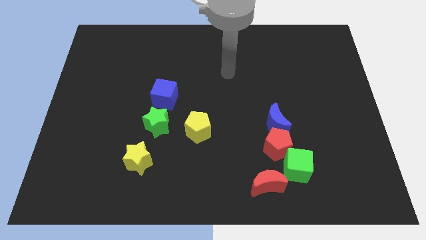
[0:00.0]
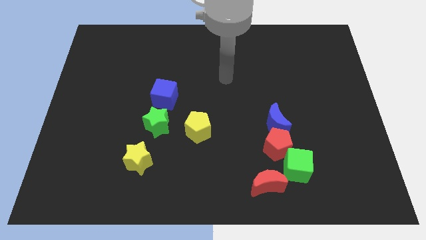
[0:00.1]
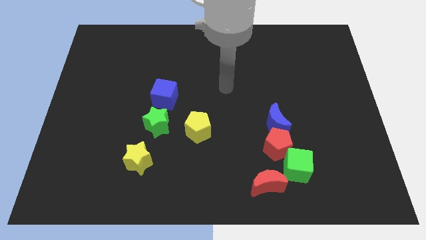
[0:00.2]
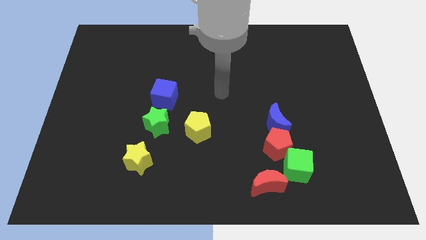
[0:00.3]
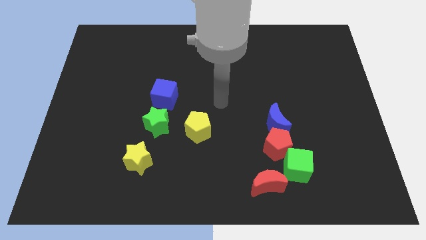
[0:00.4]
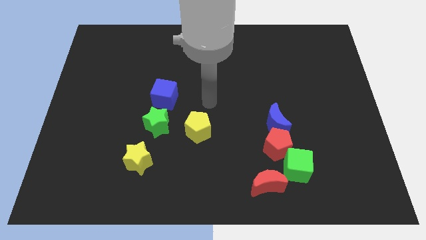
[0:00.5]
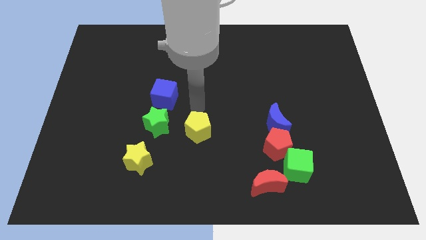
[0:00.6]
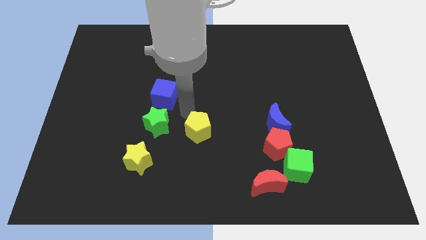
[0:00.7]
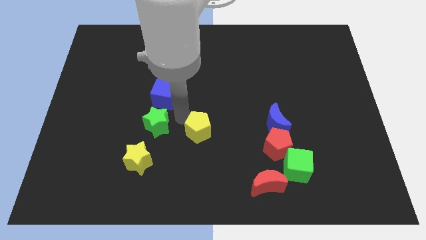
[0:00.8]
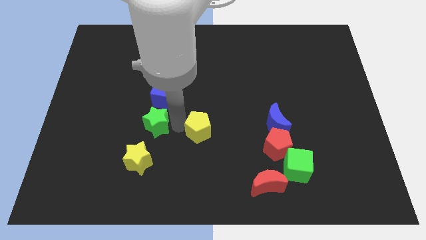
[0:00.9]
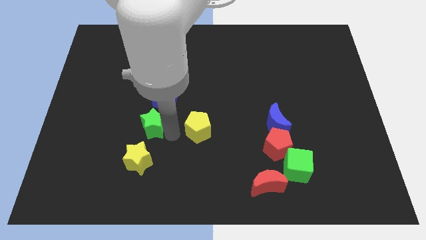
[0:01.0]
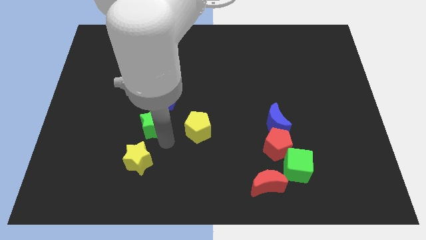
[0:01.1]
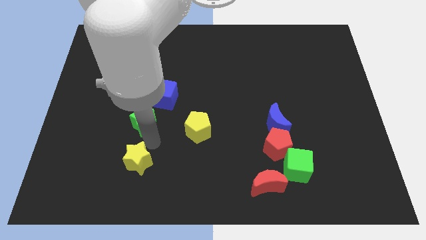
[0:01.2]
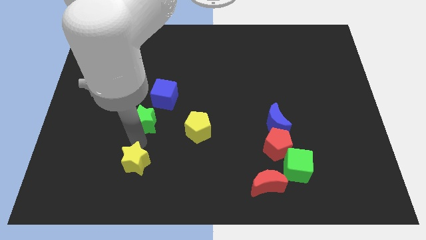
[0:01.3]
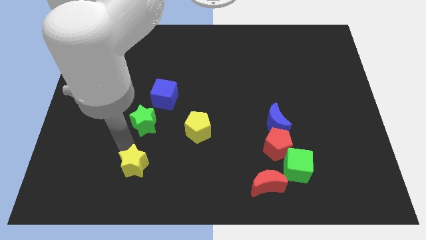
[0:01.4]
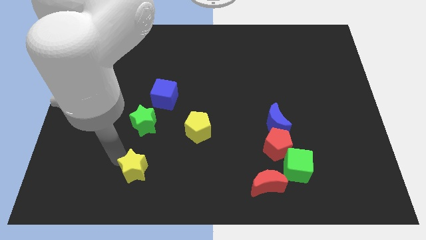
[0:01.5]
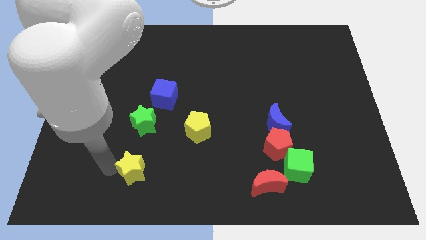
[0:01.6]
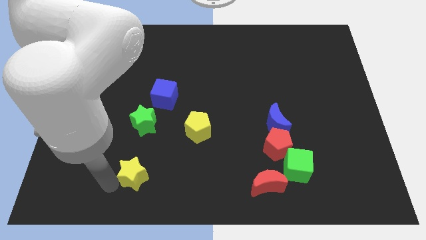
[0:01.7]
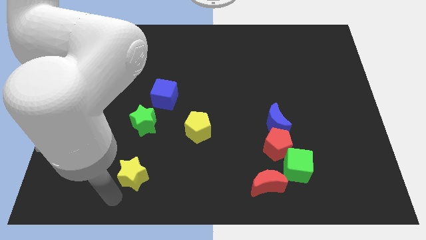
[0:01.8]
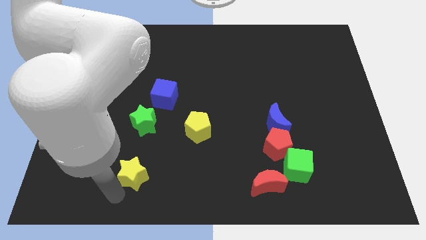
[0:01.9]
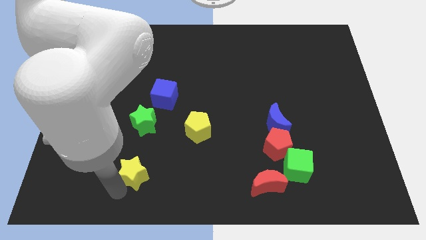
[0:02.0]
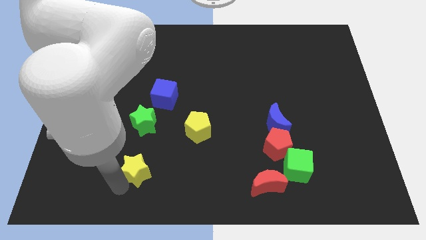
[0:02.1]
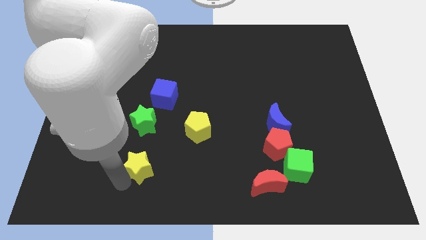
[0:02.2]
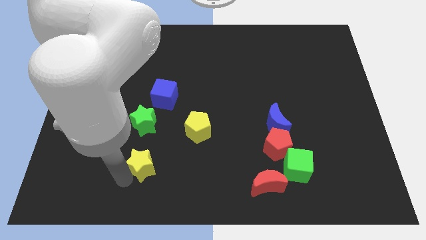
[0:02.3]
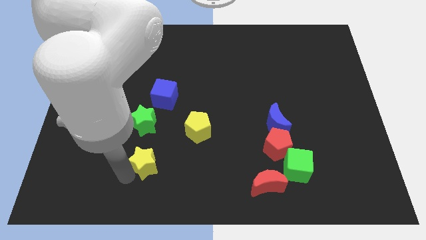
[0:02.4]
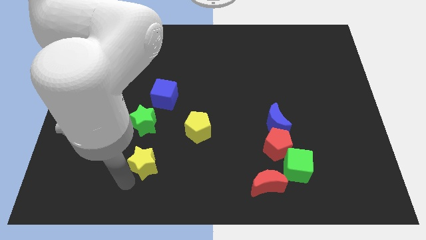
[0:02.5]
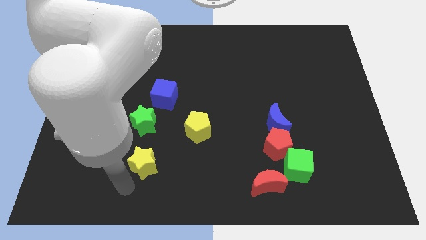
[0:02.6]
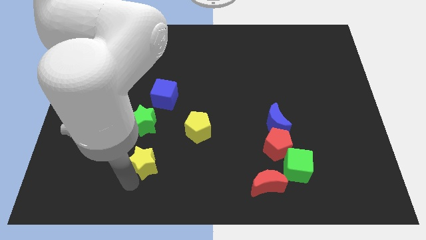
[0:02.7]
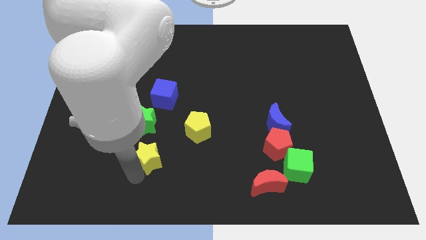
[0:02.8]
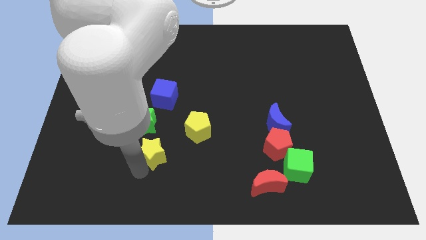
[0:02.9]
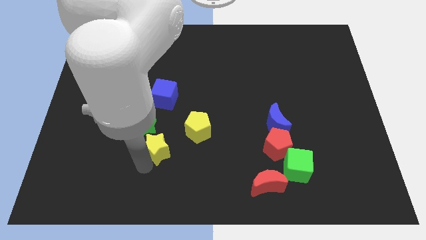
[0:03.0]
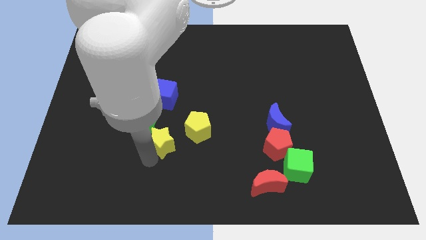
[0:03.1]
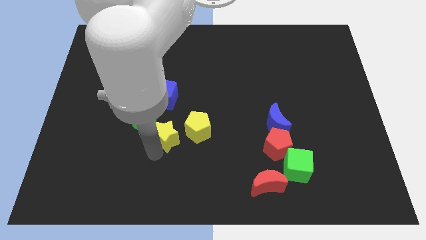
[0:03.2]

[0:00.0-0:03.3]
move the yellow star upwards and right diagonally a little

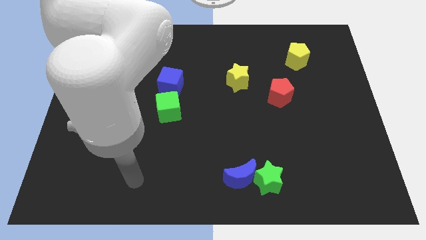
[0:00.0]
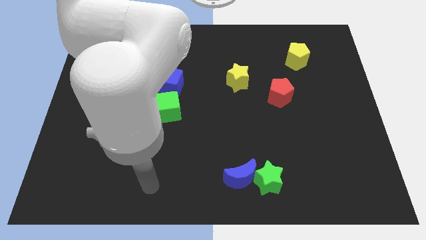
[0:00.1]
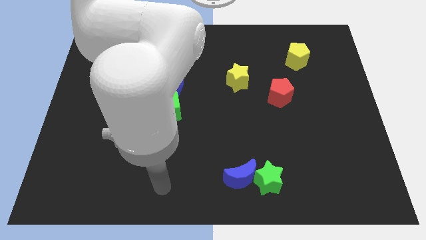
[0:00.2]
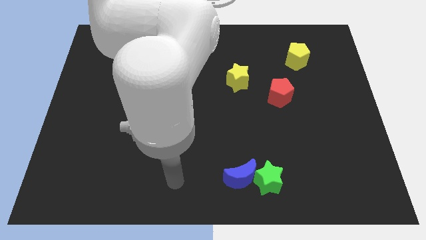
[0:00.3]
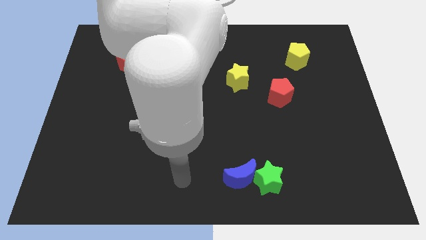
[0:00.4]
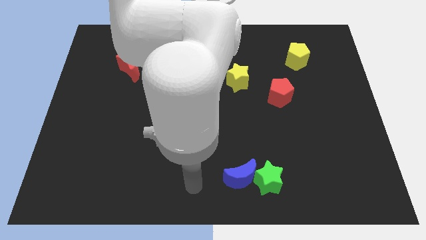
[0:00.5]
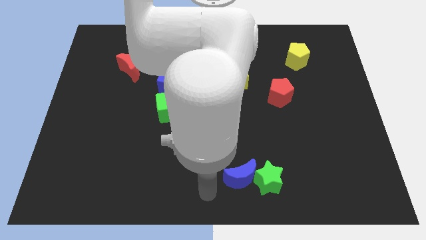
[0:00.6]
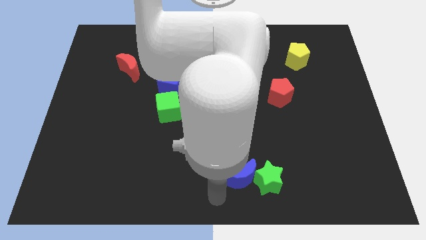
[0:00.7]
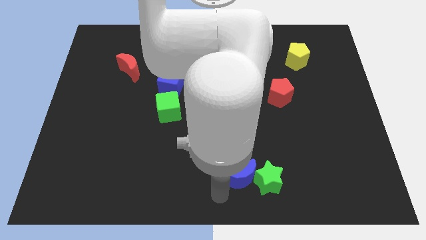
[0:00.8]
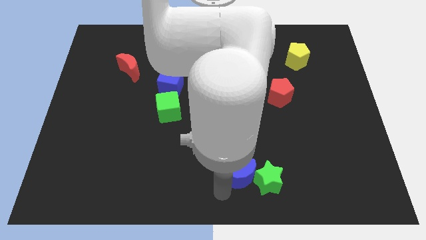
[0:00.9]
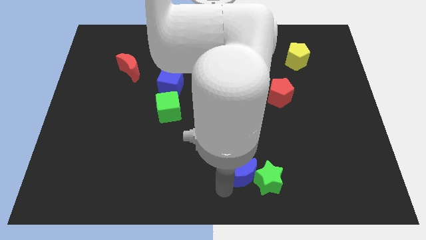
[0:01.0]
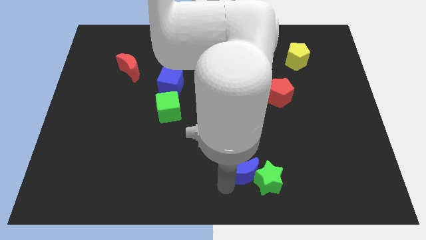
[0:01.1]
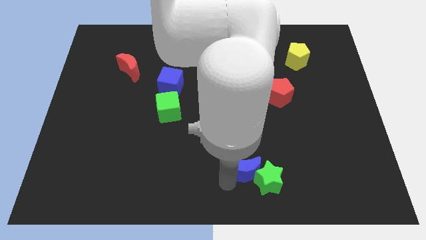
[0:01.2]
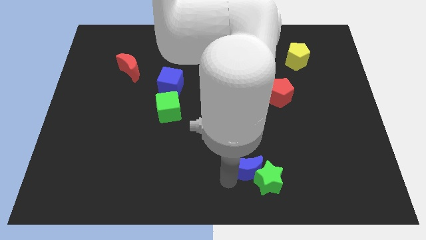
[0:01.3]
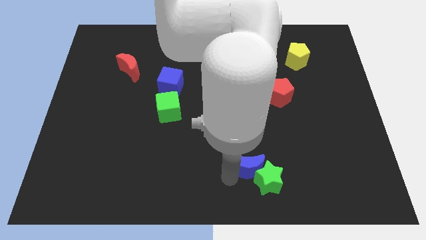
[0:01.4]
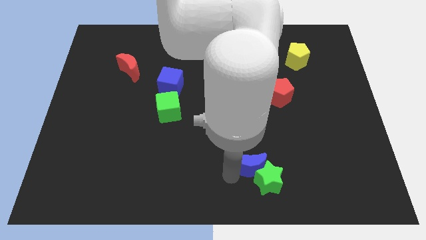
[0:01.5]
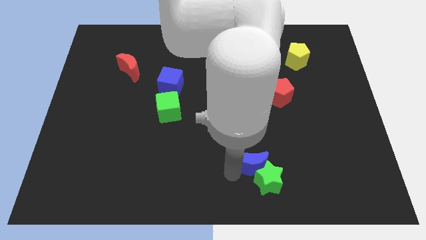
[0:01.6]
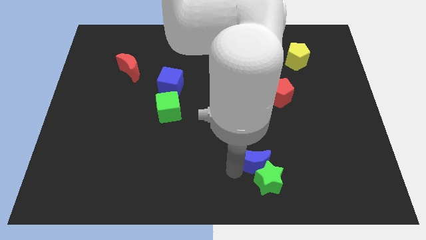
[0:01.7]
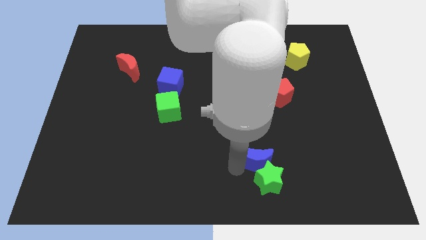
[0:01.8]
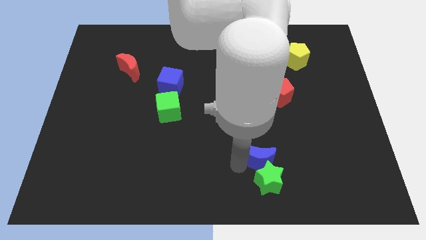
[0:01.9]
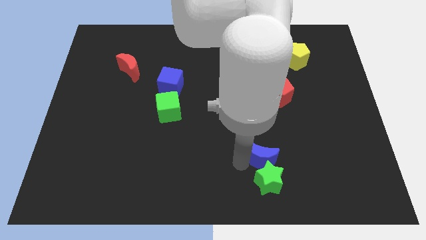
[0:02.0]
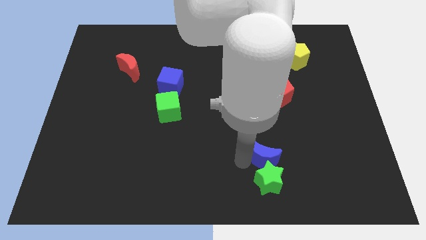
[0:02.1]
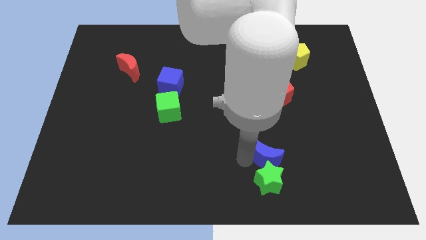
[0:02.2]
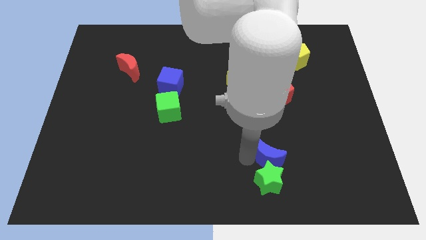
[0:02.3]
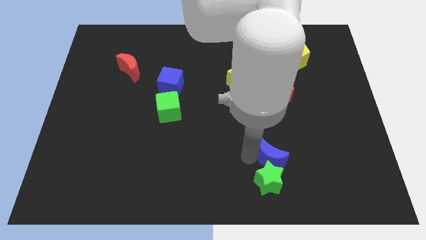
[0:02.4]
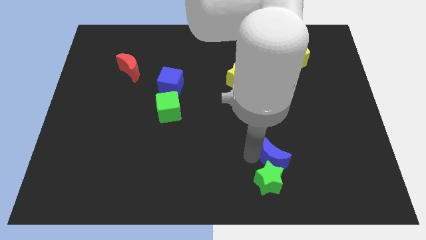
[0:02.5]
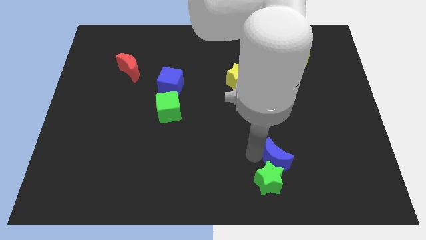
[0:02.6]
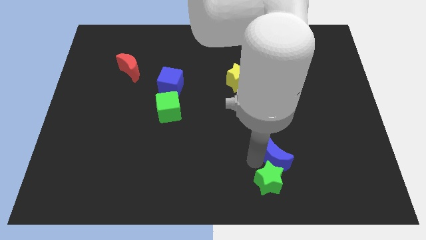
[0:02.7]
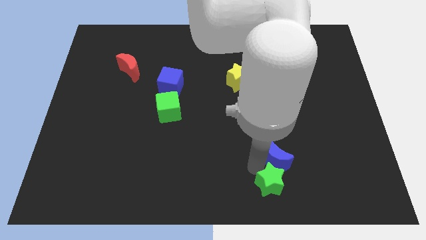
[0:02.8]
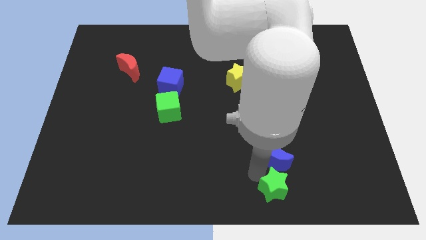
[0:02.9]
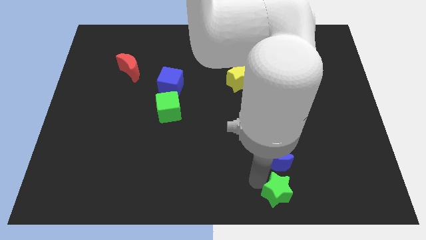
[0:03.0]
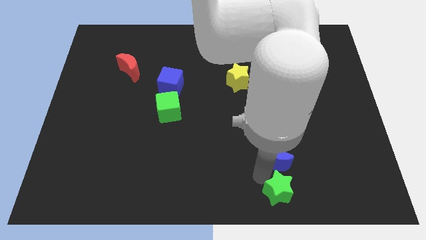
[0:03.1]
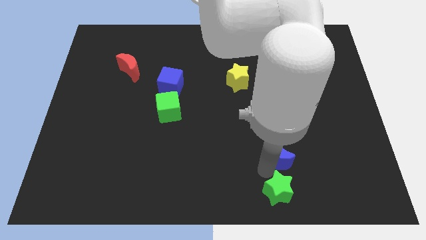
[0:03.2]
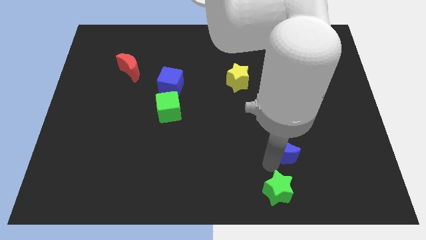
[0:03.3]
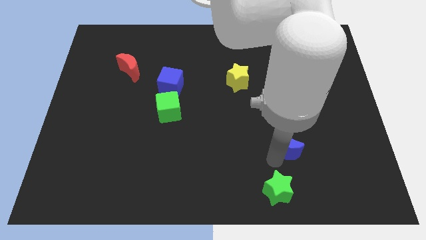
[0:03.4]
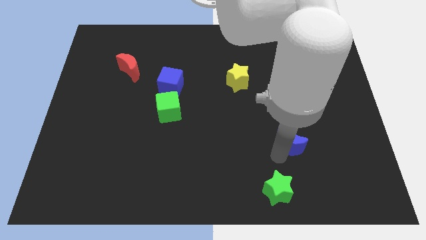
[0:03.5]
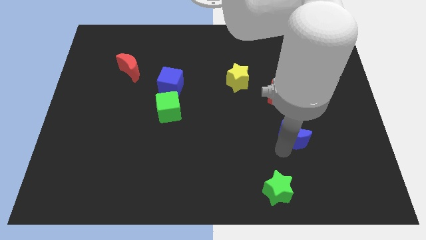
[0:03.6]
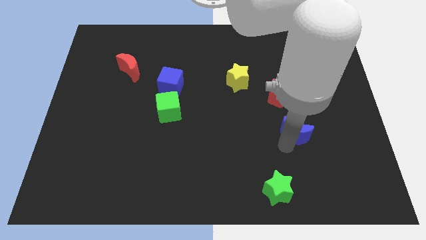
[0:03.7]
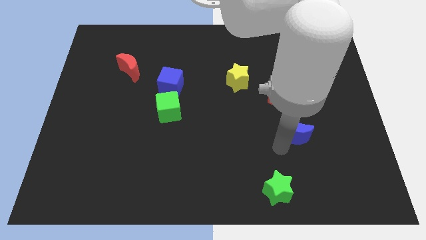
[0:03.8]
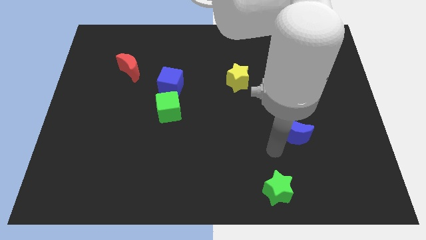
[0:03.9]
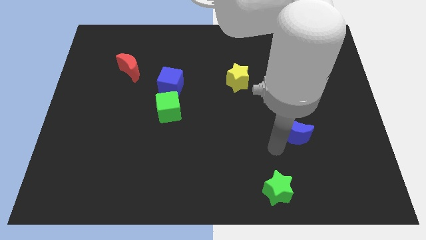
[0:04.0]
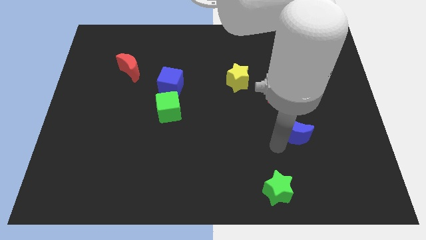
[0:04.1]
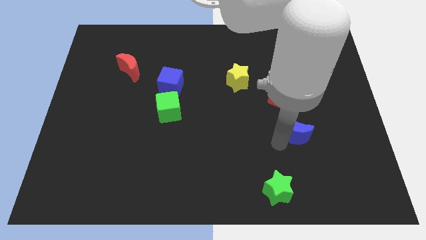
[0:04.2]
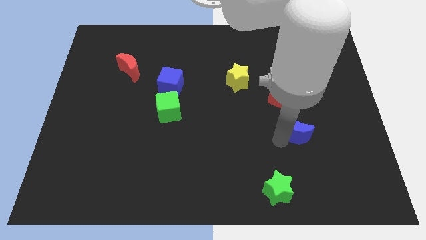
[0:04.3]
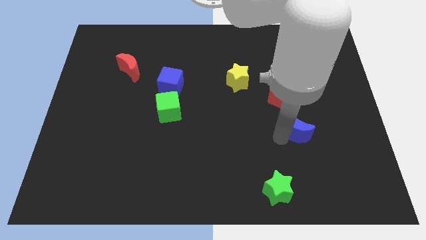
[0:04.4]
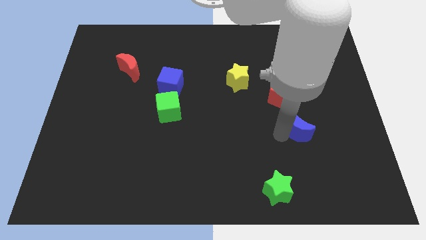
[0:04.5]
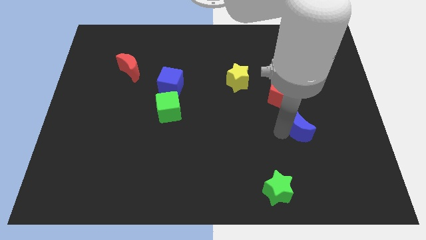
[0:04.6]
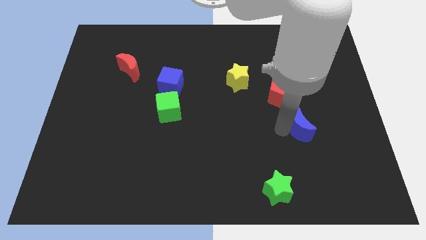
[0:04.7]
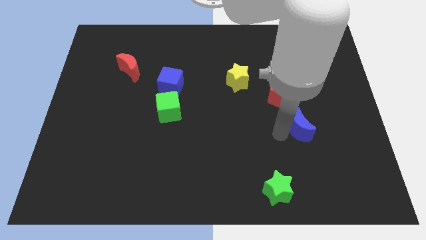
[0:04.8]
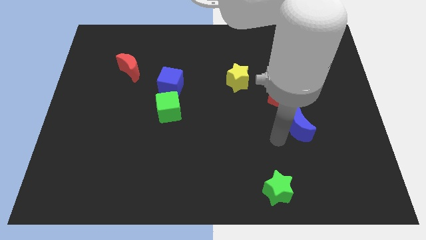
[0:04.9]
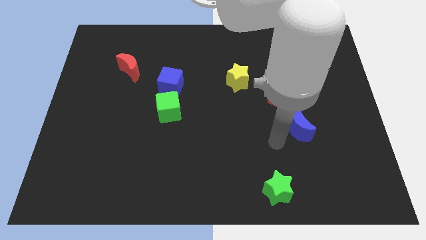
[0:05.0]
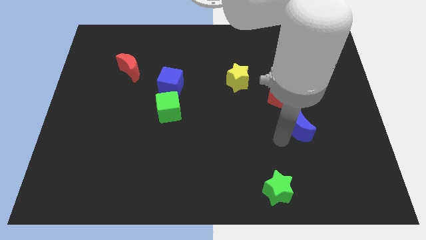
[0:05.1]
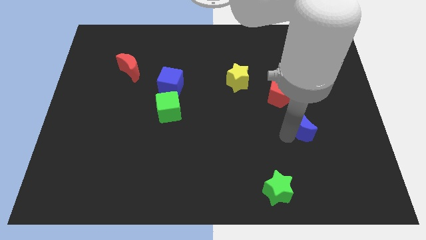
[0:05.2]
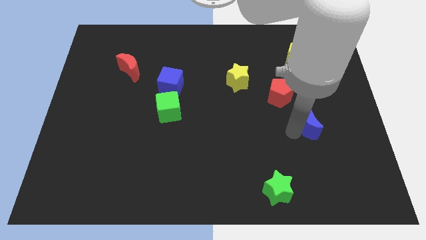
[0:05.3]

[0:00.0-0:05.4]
push the blue moon upwards and right diagonally
